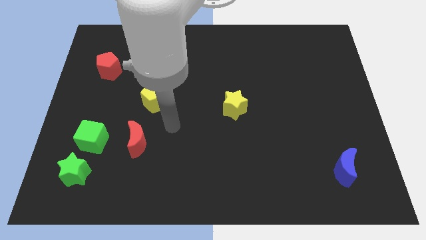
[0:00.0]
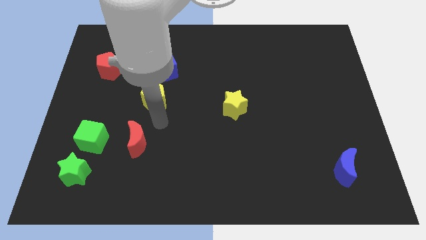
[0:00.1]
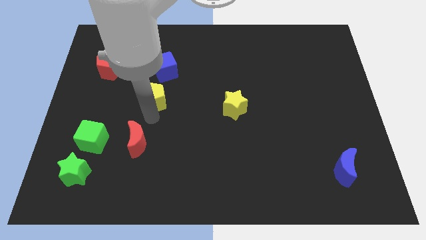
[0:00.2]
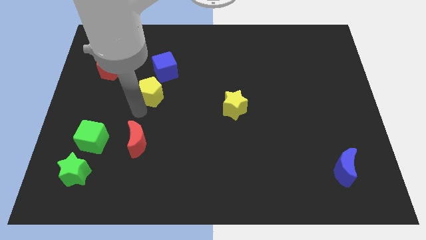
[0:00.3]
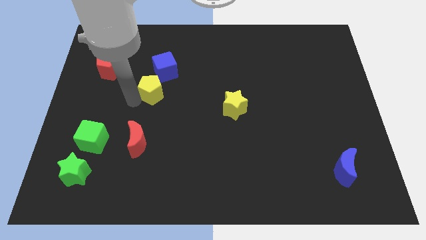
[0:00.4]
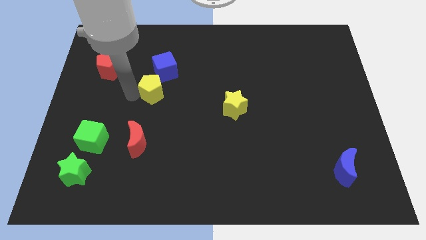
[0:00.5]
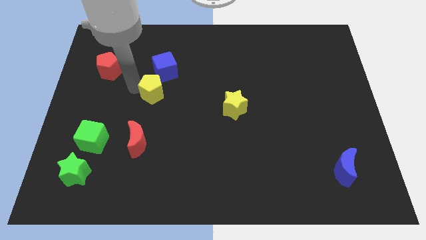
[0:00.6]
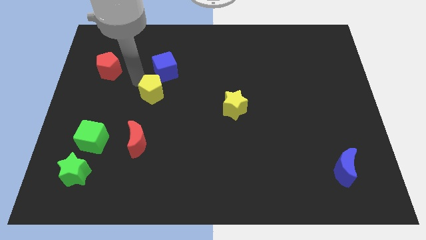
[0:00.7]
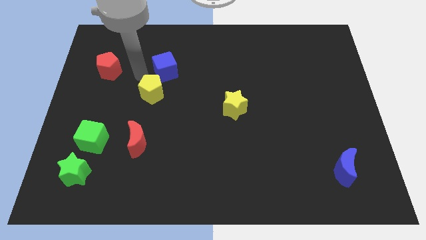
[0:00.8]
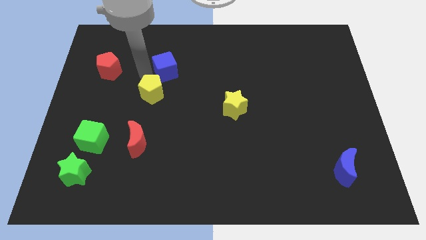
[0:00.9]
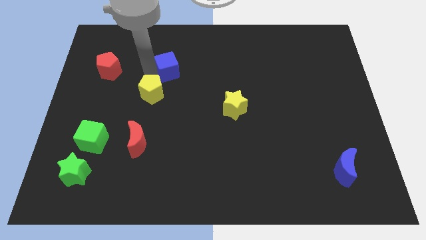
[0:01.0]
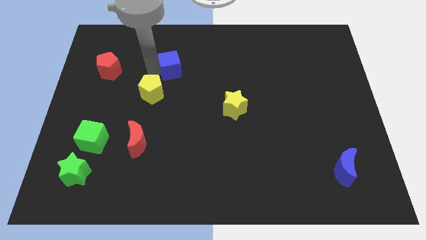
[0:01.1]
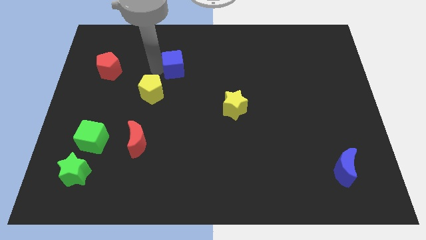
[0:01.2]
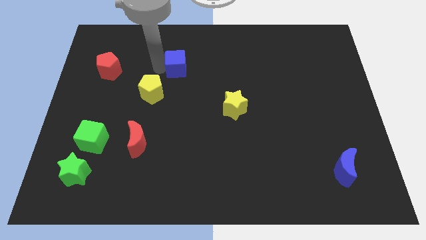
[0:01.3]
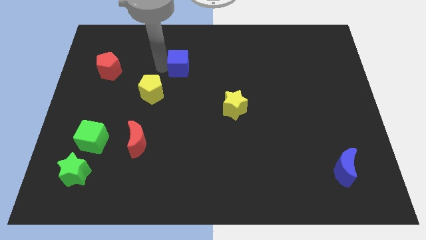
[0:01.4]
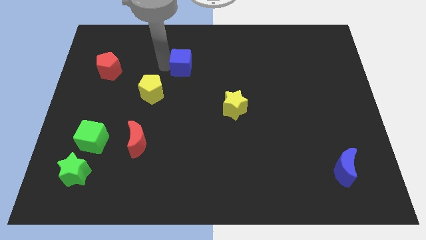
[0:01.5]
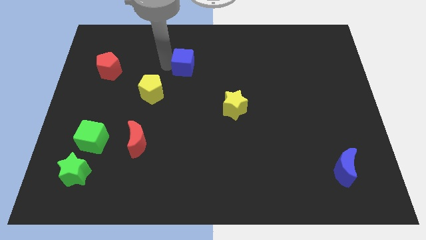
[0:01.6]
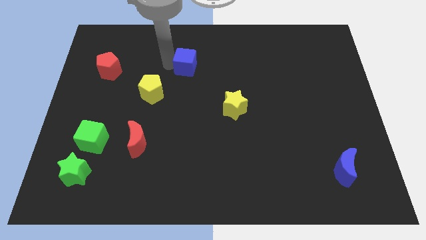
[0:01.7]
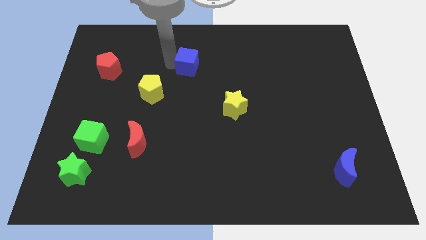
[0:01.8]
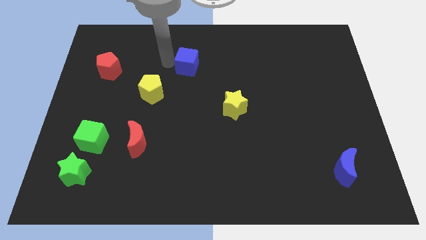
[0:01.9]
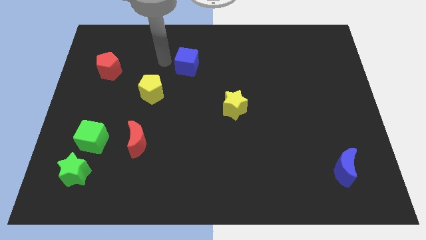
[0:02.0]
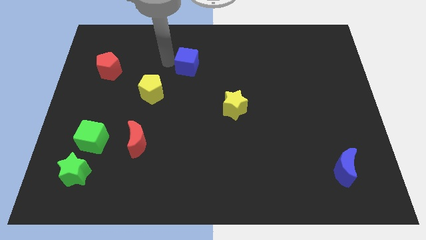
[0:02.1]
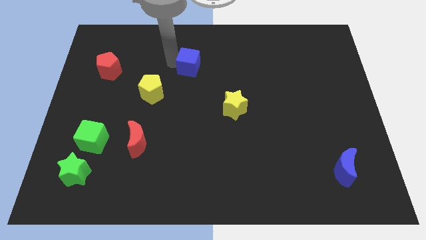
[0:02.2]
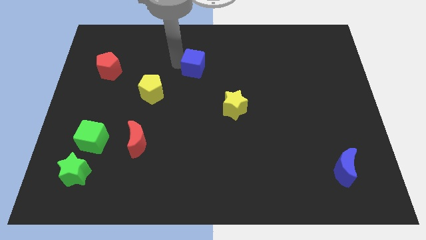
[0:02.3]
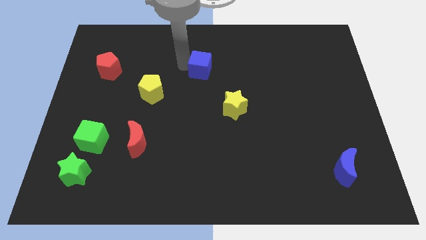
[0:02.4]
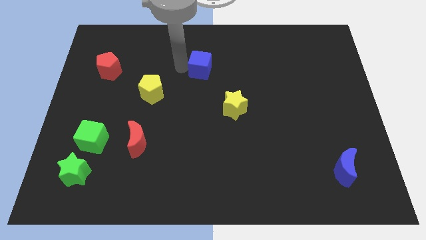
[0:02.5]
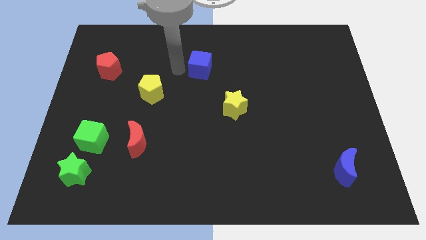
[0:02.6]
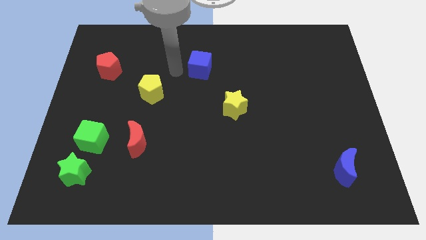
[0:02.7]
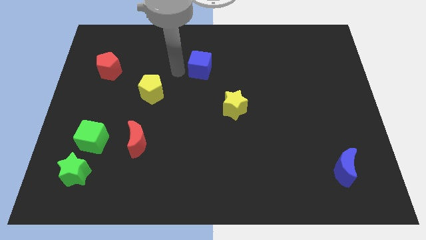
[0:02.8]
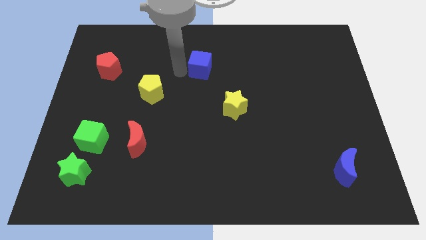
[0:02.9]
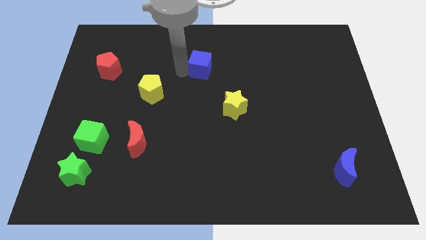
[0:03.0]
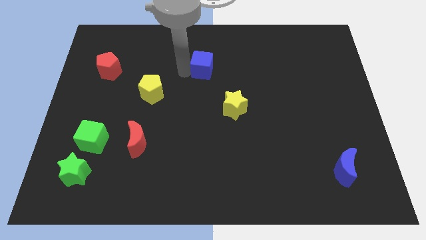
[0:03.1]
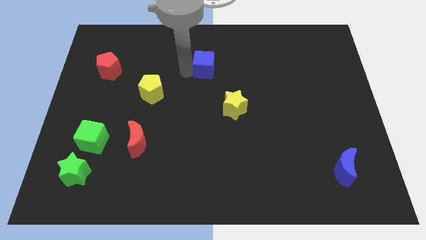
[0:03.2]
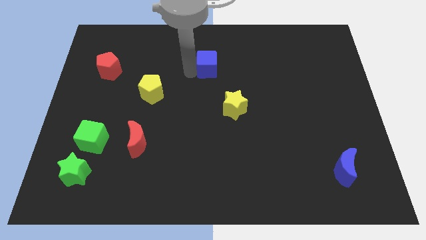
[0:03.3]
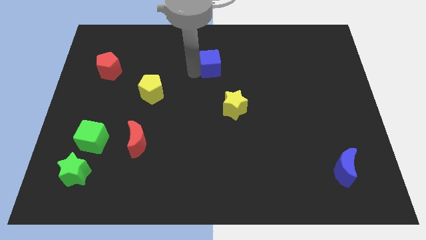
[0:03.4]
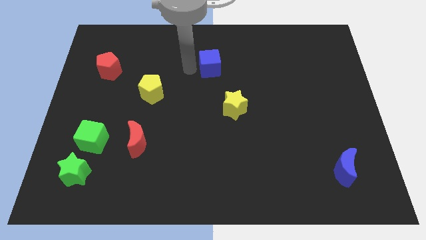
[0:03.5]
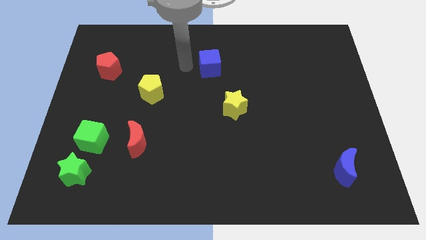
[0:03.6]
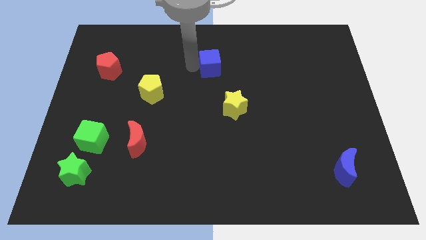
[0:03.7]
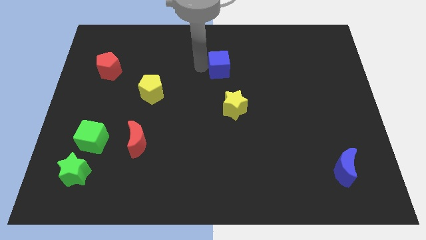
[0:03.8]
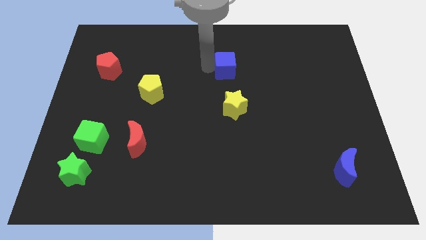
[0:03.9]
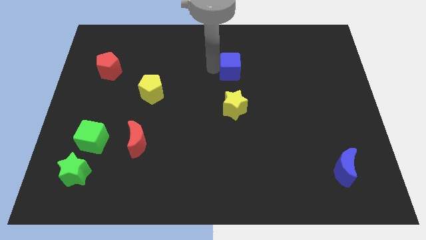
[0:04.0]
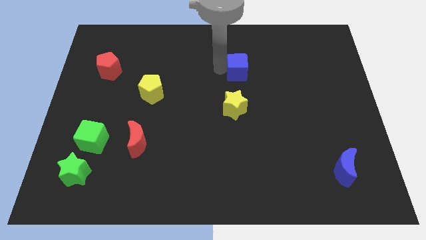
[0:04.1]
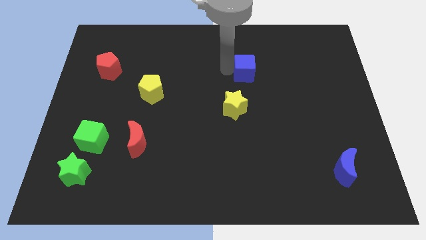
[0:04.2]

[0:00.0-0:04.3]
push the blue cube right

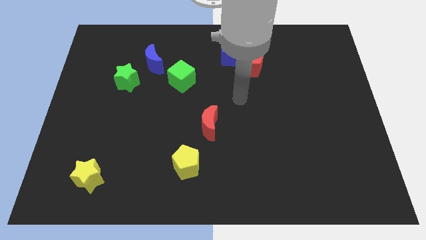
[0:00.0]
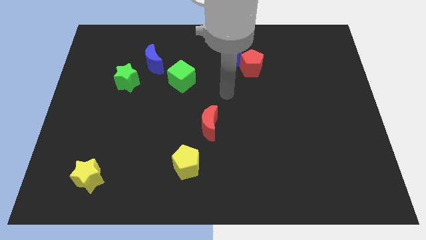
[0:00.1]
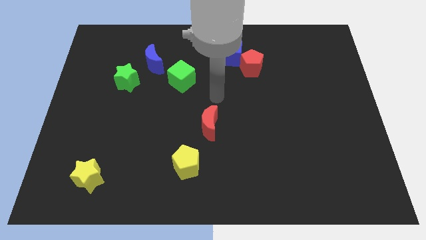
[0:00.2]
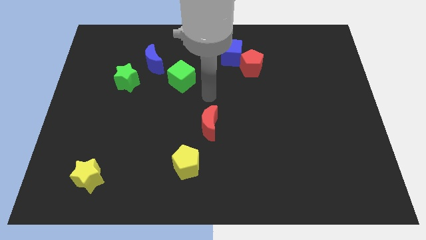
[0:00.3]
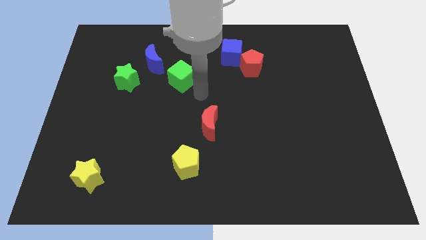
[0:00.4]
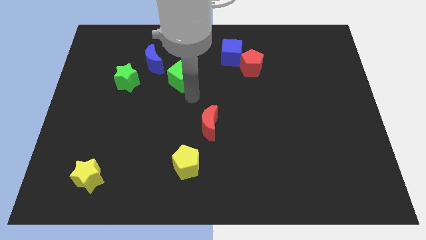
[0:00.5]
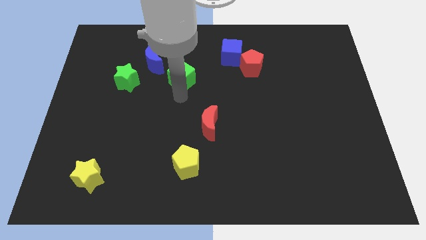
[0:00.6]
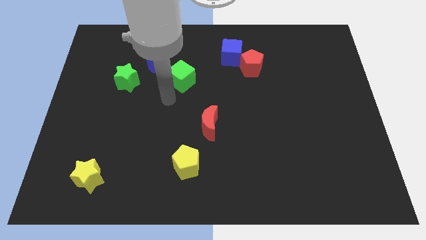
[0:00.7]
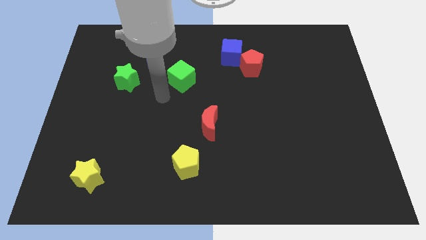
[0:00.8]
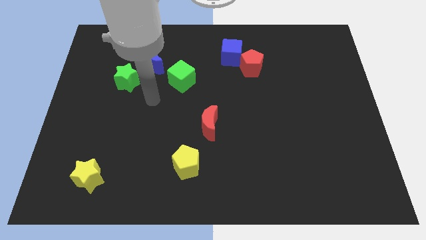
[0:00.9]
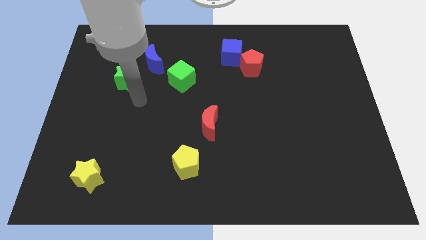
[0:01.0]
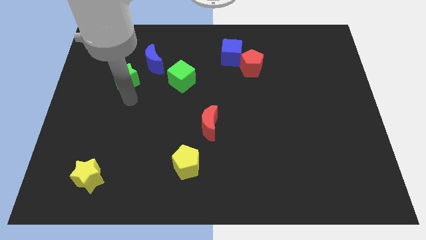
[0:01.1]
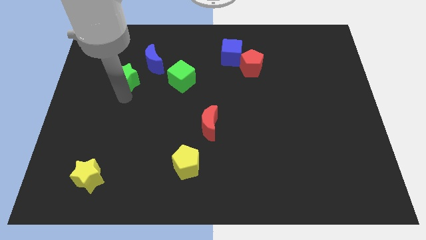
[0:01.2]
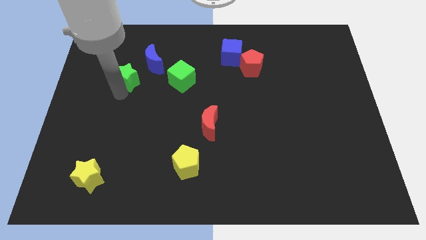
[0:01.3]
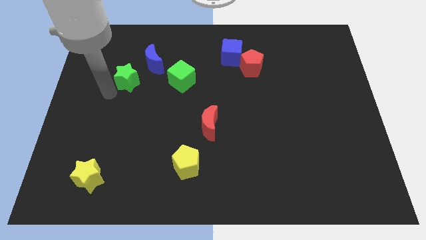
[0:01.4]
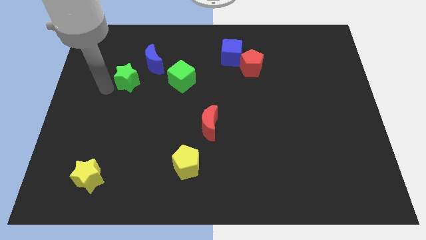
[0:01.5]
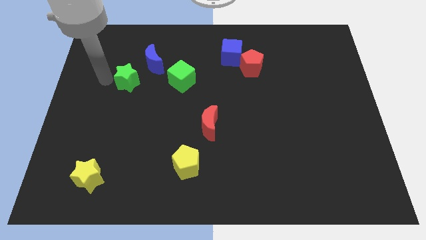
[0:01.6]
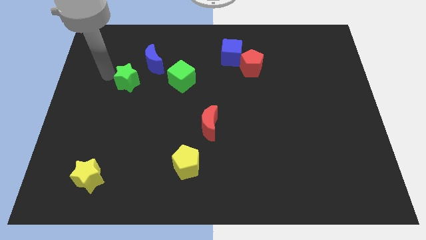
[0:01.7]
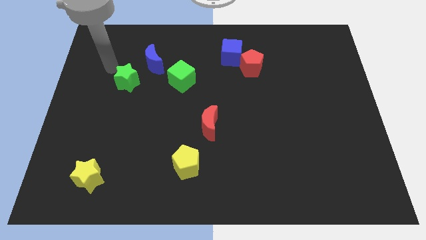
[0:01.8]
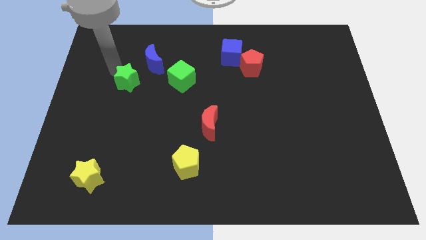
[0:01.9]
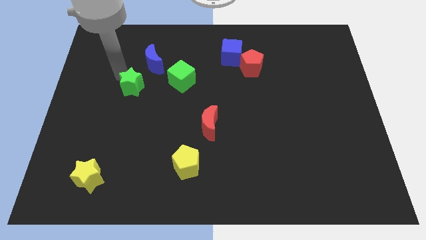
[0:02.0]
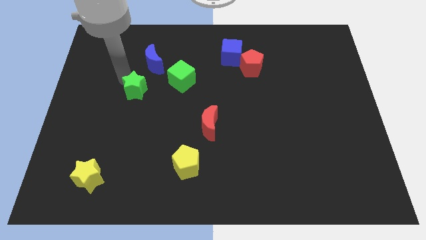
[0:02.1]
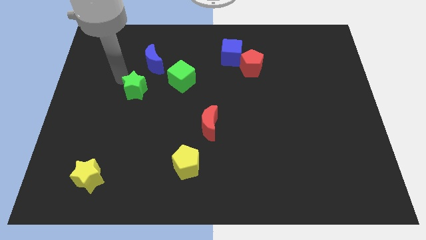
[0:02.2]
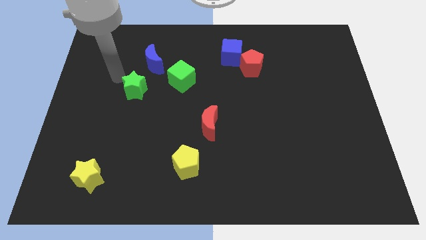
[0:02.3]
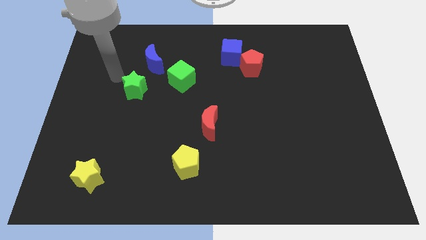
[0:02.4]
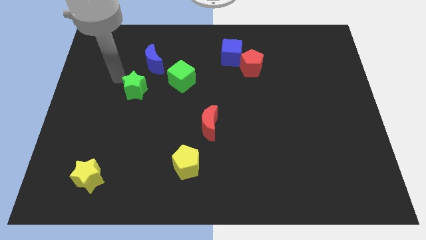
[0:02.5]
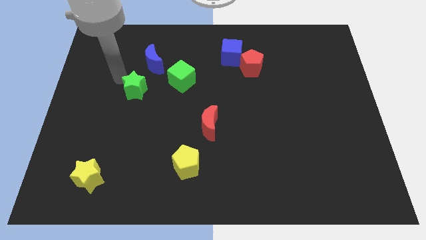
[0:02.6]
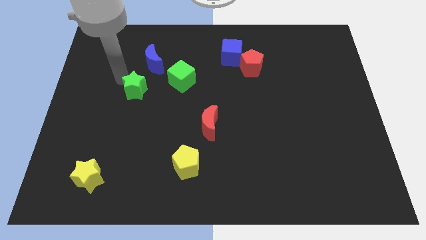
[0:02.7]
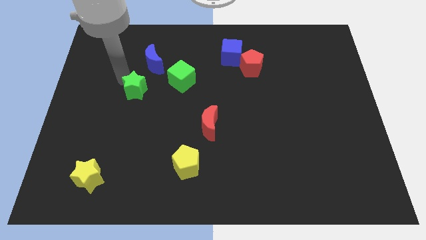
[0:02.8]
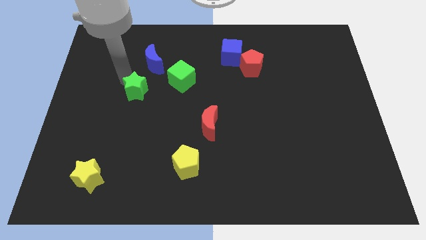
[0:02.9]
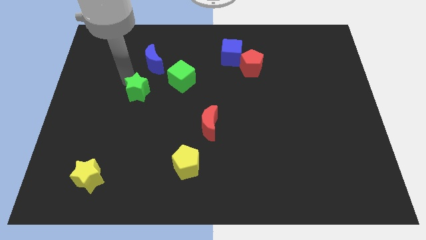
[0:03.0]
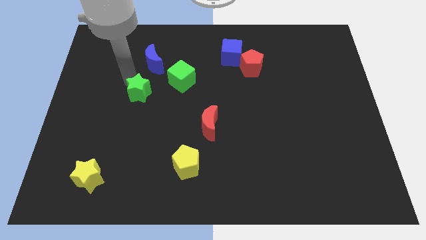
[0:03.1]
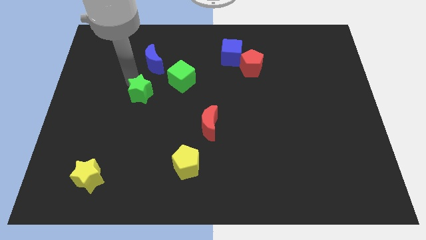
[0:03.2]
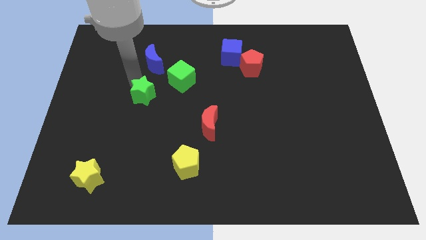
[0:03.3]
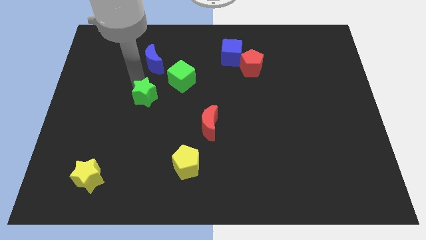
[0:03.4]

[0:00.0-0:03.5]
slide the green star diagonally downwards and right a little bit
